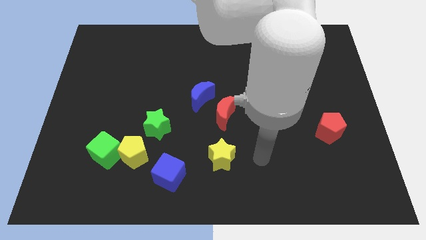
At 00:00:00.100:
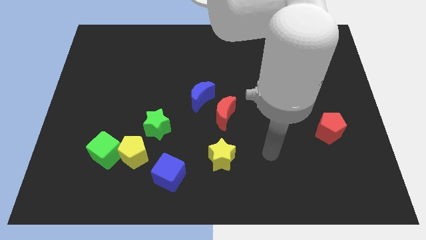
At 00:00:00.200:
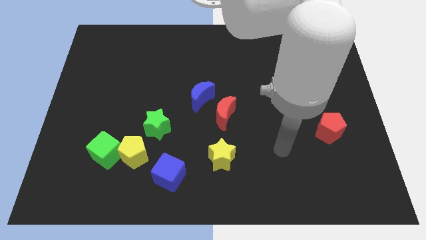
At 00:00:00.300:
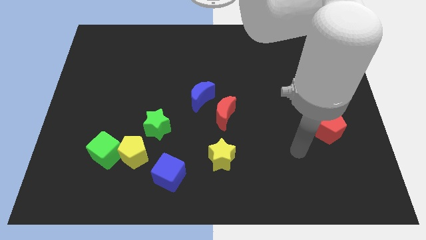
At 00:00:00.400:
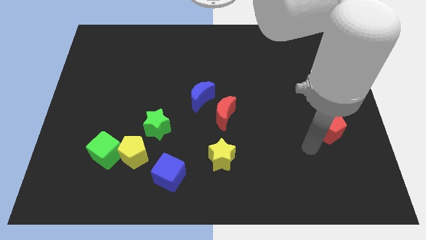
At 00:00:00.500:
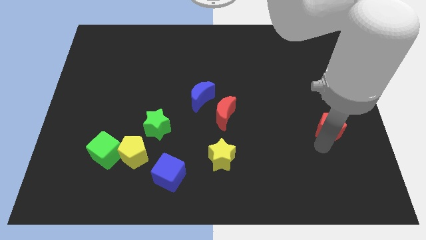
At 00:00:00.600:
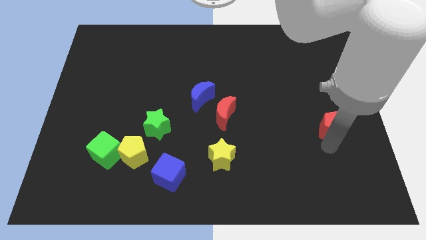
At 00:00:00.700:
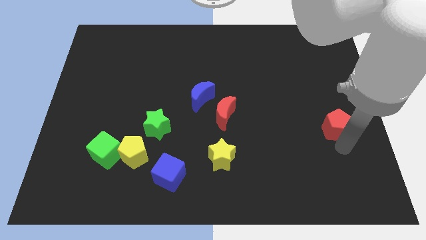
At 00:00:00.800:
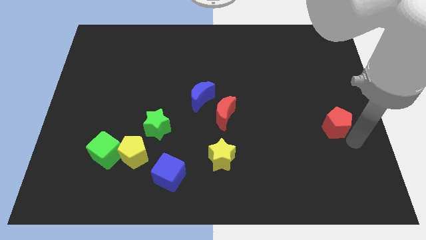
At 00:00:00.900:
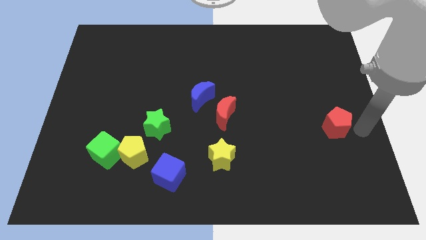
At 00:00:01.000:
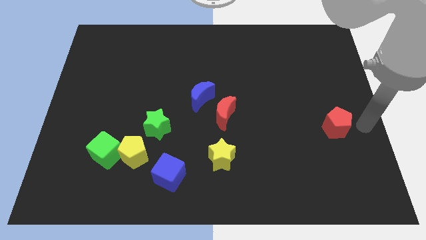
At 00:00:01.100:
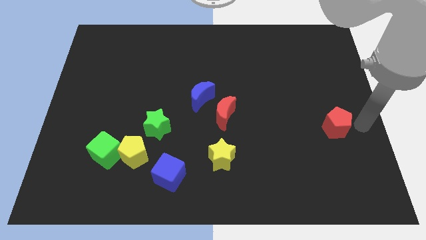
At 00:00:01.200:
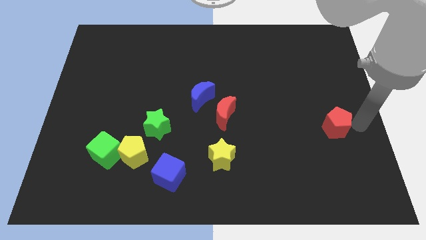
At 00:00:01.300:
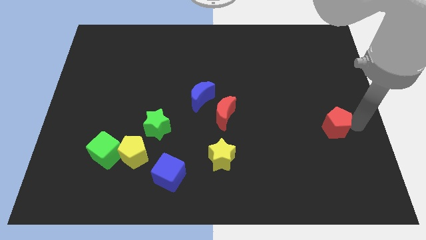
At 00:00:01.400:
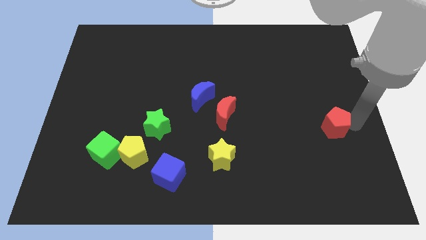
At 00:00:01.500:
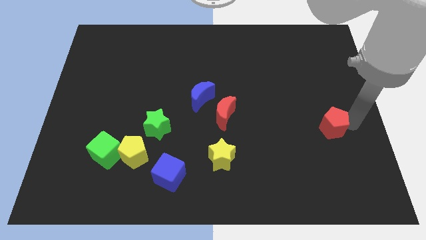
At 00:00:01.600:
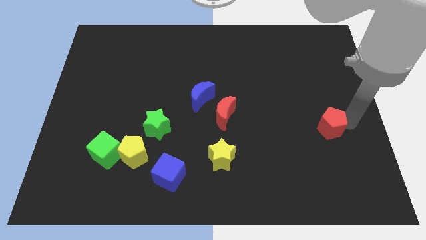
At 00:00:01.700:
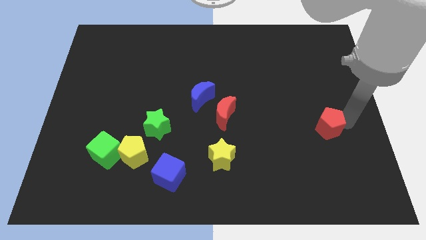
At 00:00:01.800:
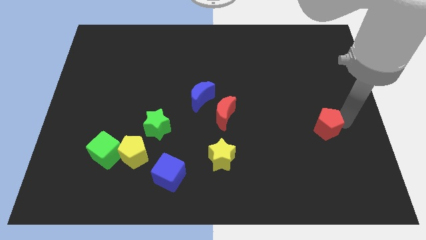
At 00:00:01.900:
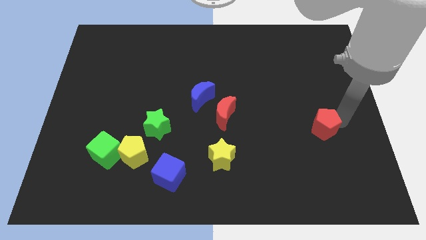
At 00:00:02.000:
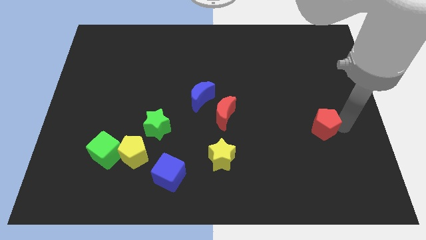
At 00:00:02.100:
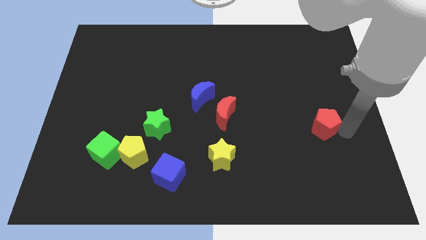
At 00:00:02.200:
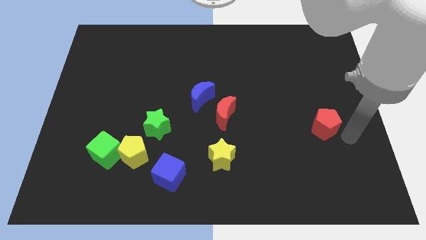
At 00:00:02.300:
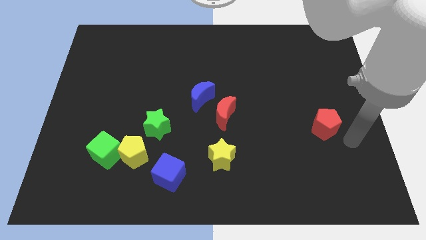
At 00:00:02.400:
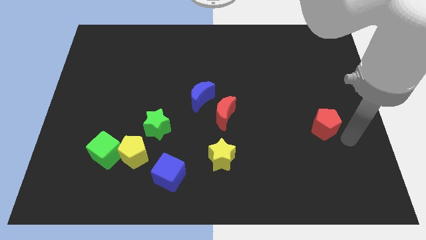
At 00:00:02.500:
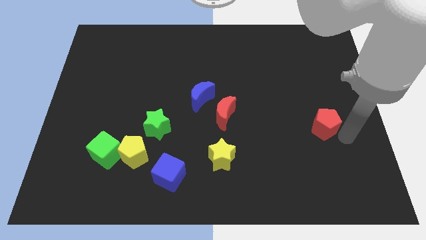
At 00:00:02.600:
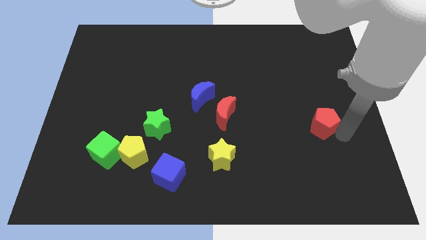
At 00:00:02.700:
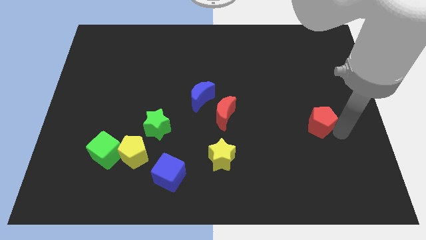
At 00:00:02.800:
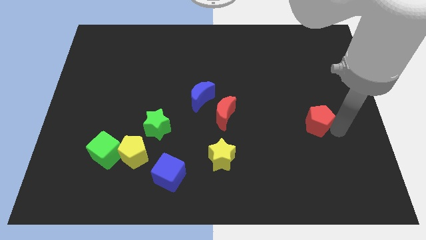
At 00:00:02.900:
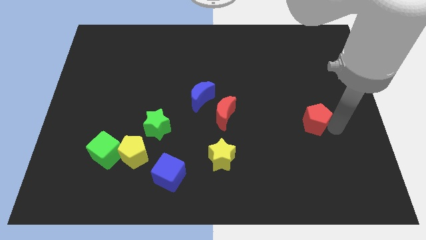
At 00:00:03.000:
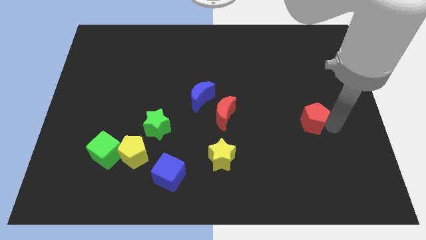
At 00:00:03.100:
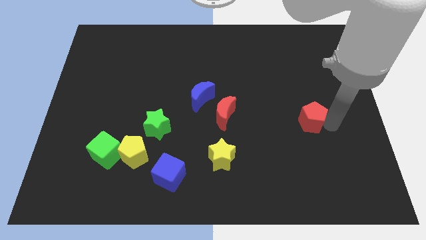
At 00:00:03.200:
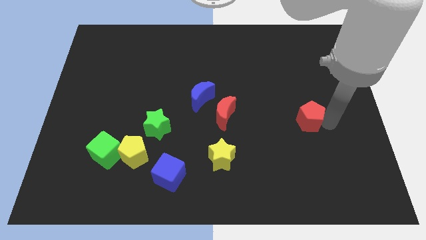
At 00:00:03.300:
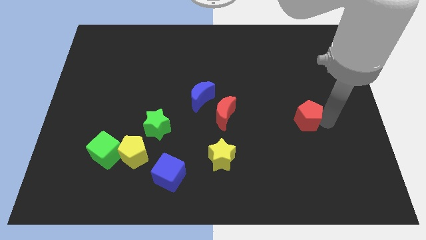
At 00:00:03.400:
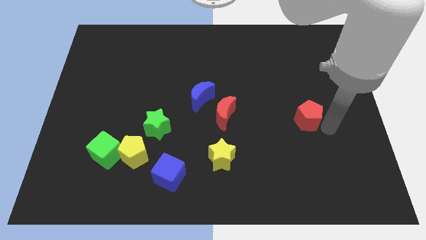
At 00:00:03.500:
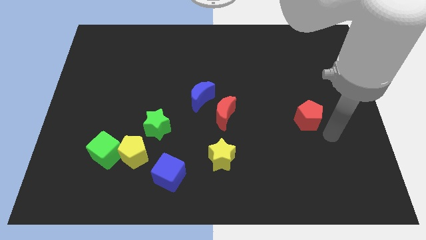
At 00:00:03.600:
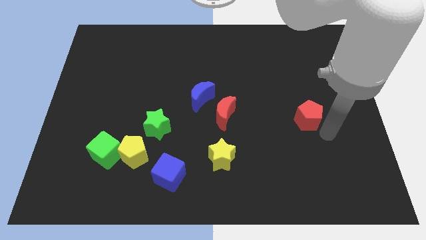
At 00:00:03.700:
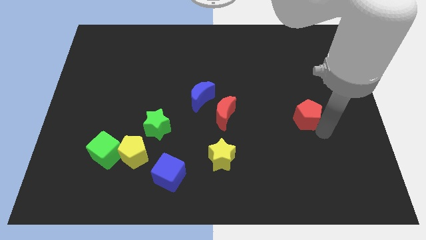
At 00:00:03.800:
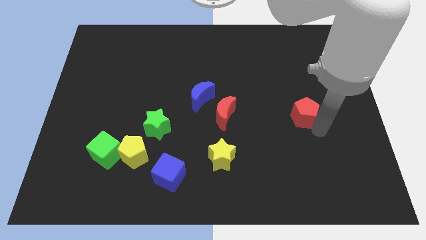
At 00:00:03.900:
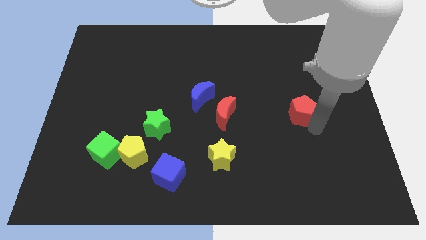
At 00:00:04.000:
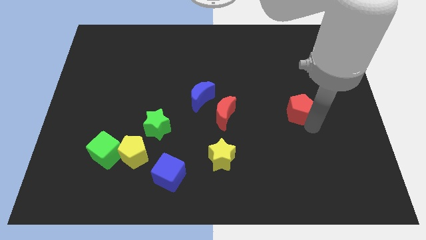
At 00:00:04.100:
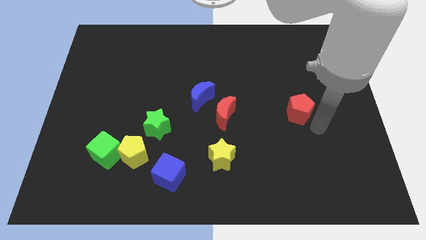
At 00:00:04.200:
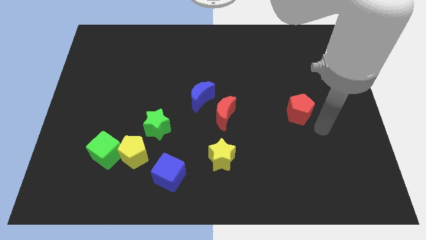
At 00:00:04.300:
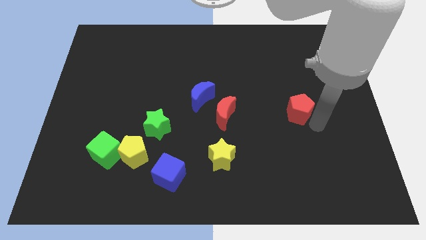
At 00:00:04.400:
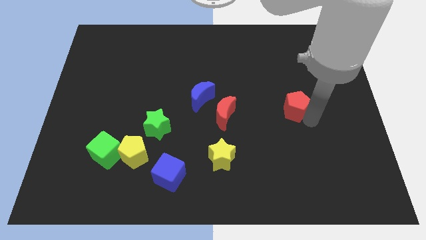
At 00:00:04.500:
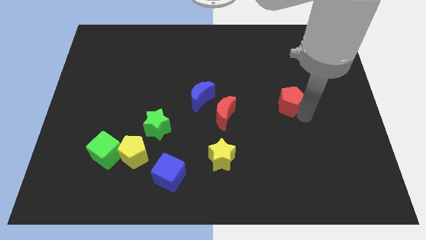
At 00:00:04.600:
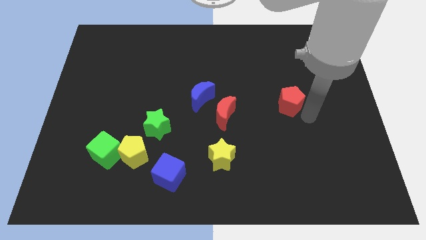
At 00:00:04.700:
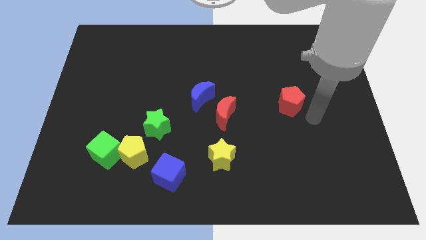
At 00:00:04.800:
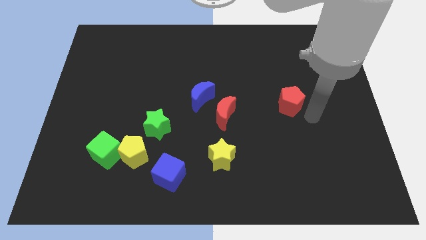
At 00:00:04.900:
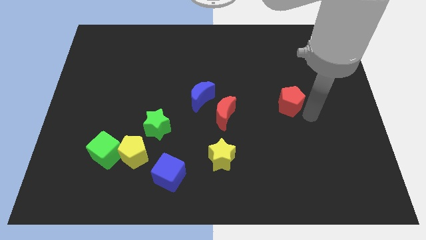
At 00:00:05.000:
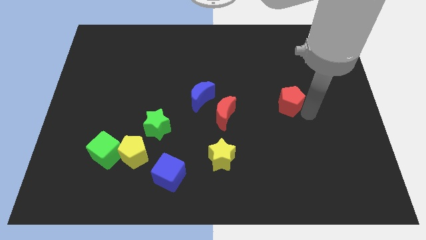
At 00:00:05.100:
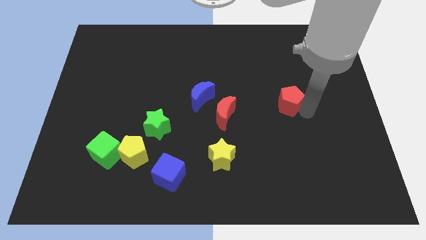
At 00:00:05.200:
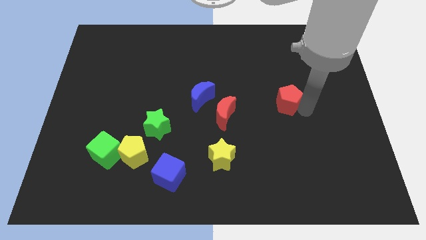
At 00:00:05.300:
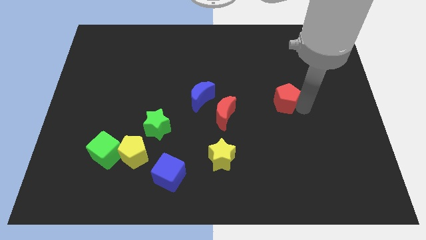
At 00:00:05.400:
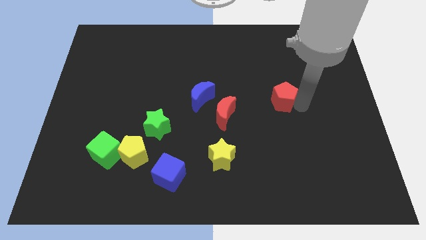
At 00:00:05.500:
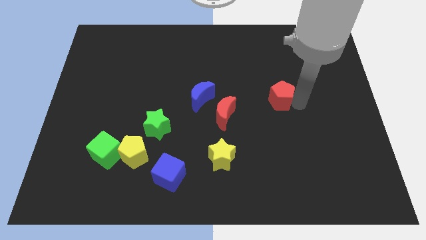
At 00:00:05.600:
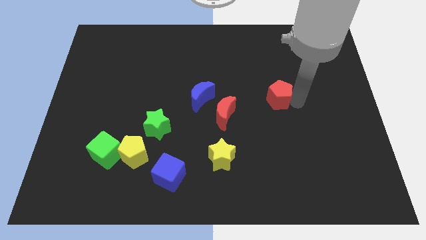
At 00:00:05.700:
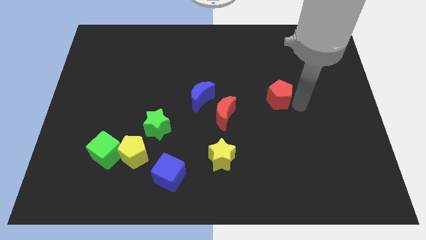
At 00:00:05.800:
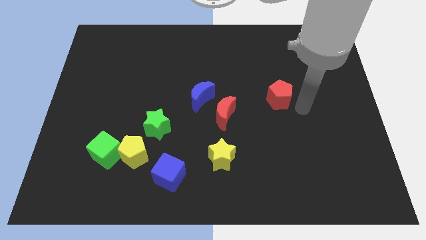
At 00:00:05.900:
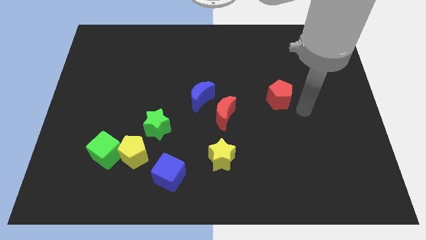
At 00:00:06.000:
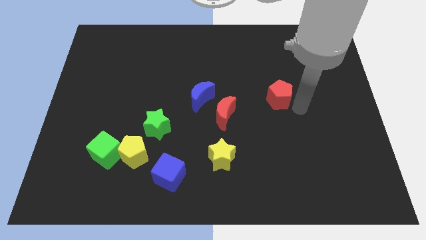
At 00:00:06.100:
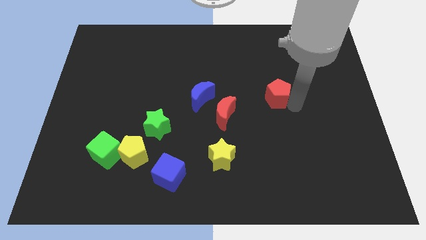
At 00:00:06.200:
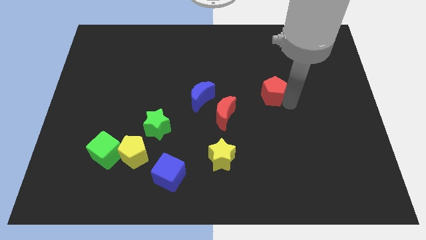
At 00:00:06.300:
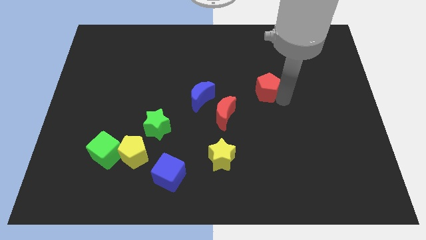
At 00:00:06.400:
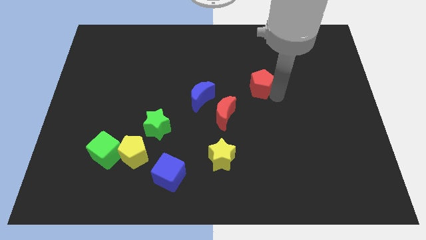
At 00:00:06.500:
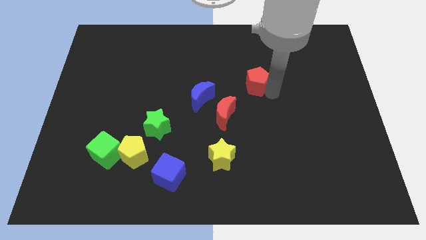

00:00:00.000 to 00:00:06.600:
move the red pentagon up and to the left diagonally

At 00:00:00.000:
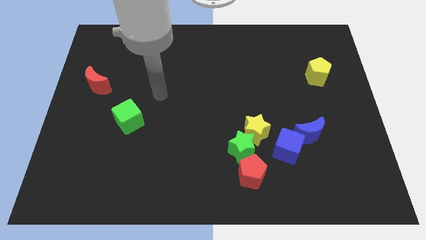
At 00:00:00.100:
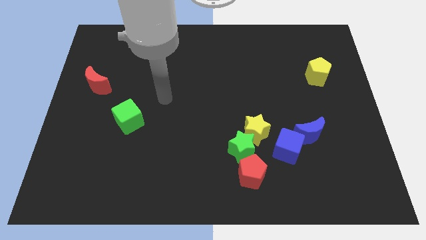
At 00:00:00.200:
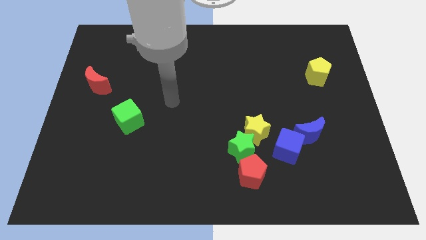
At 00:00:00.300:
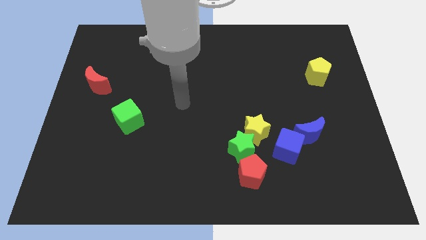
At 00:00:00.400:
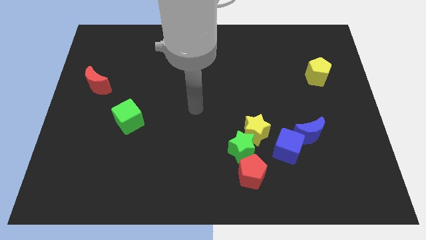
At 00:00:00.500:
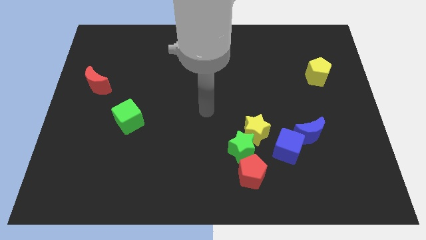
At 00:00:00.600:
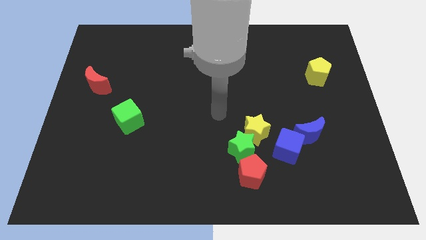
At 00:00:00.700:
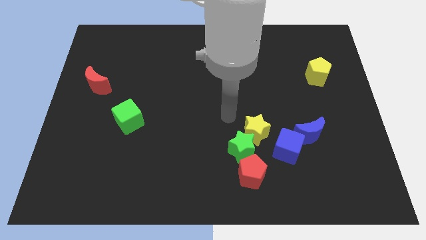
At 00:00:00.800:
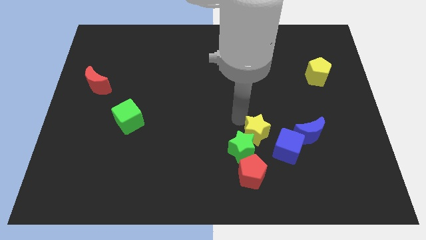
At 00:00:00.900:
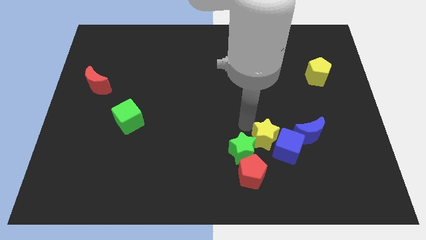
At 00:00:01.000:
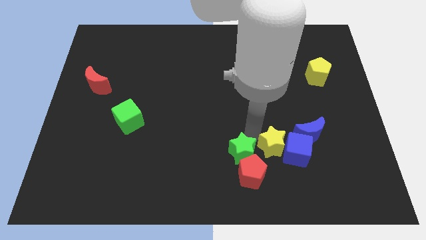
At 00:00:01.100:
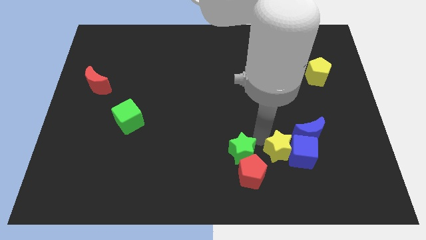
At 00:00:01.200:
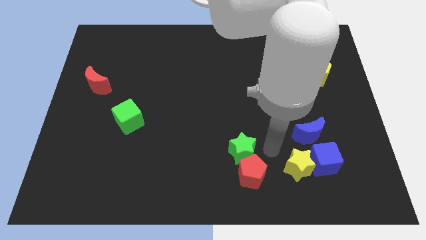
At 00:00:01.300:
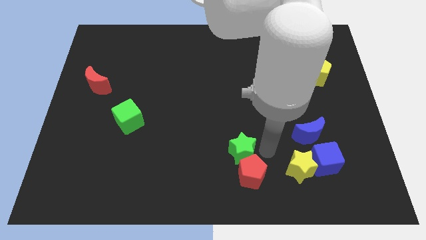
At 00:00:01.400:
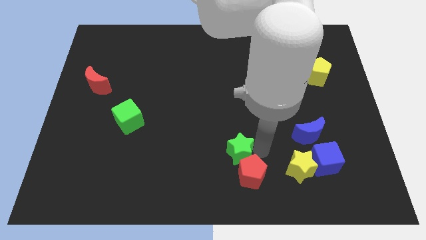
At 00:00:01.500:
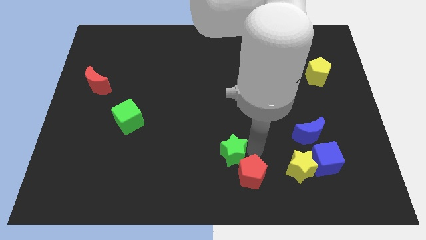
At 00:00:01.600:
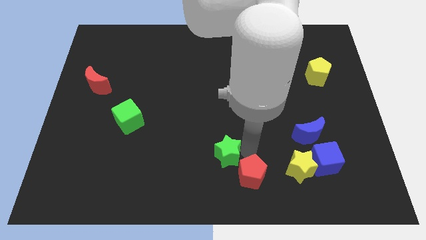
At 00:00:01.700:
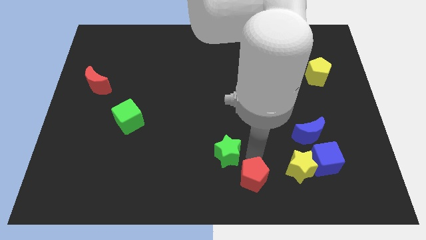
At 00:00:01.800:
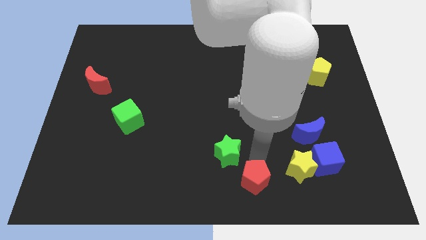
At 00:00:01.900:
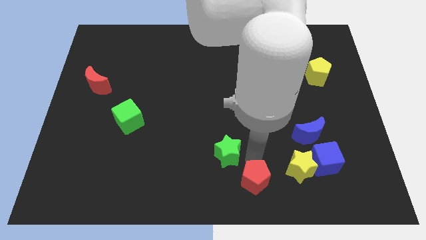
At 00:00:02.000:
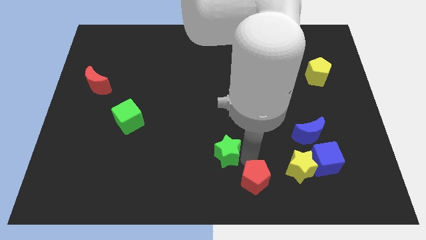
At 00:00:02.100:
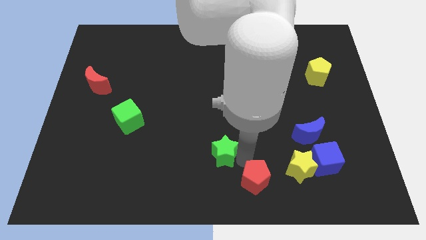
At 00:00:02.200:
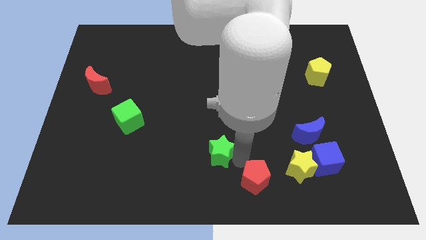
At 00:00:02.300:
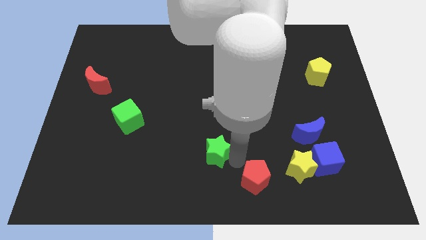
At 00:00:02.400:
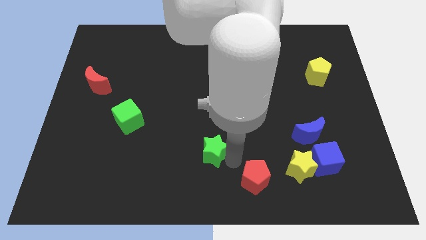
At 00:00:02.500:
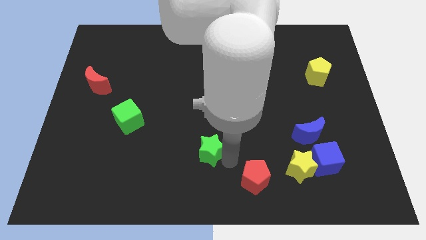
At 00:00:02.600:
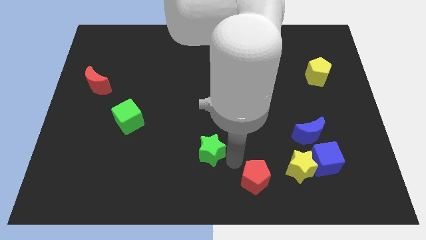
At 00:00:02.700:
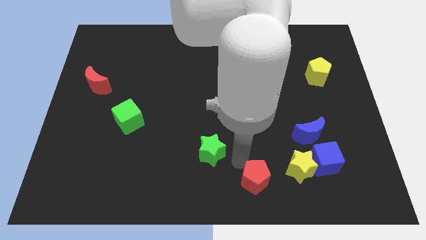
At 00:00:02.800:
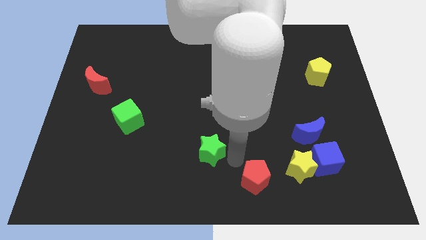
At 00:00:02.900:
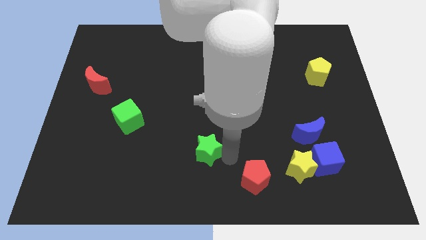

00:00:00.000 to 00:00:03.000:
move the green star left somewhat
